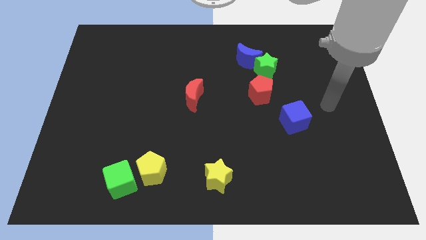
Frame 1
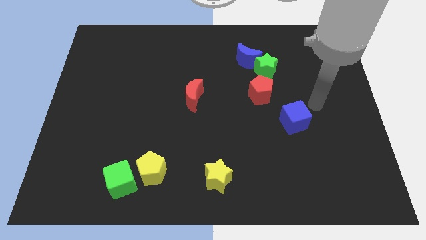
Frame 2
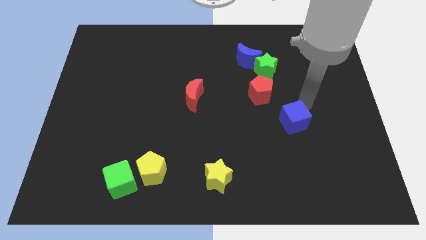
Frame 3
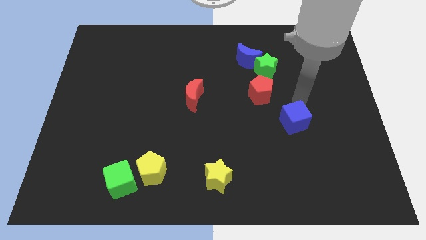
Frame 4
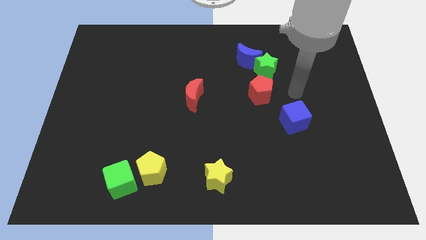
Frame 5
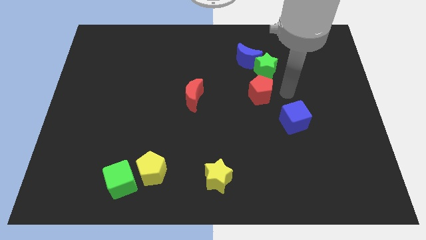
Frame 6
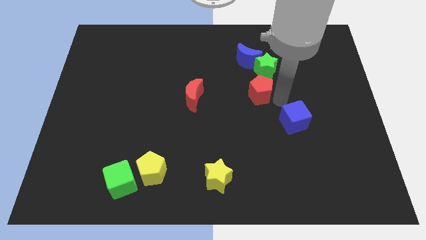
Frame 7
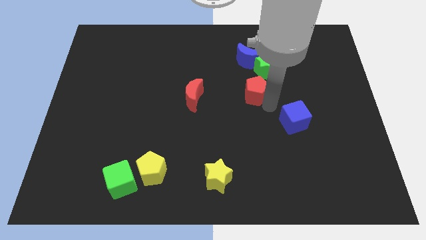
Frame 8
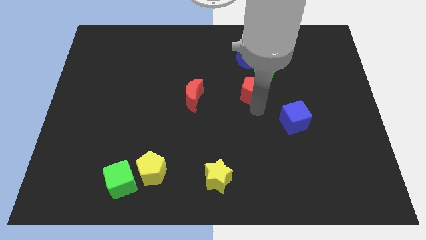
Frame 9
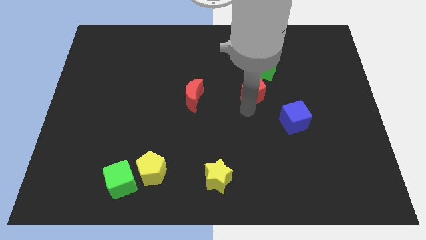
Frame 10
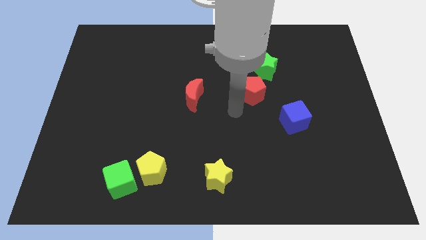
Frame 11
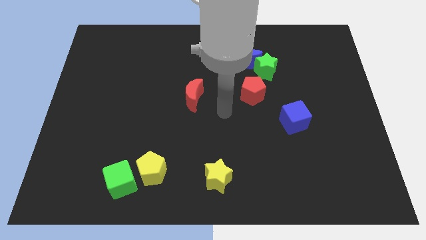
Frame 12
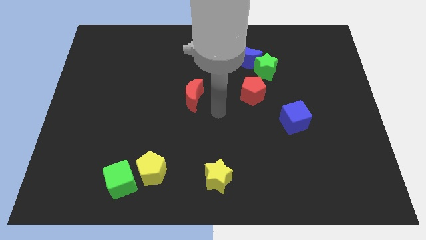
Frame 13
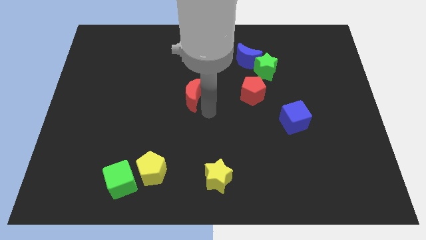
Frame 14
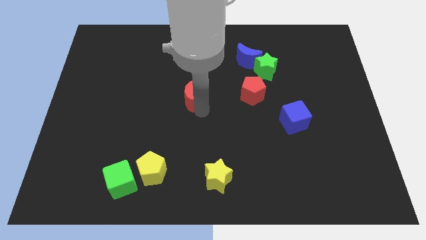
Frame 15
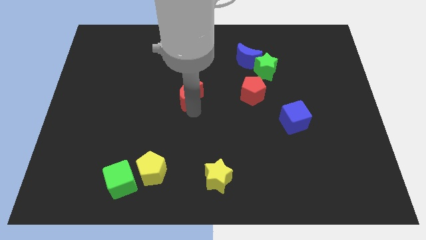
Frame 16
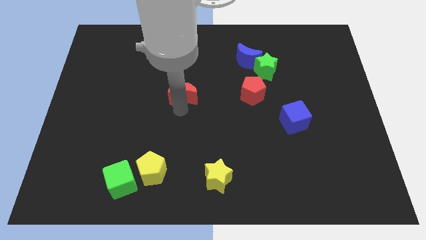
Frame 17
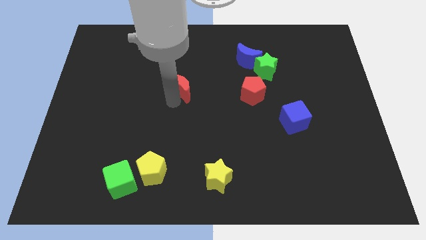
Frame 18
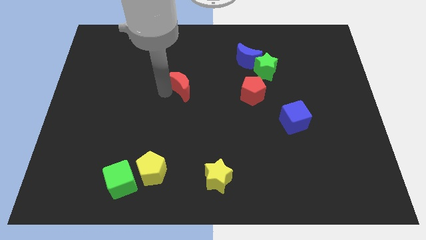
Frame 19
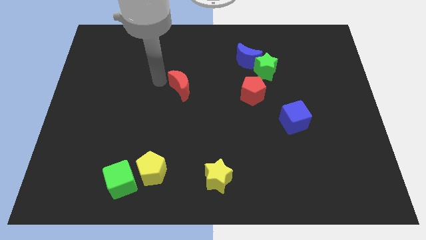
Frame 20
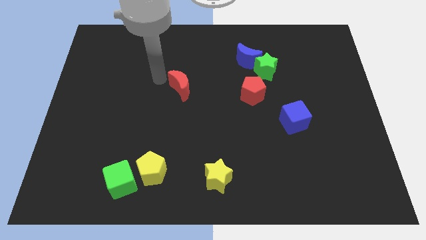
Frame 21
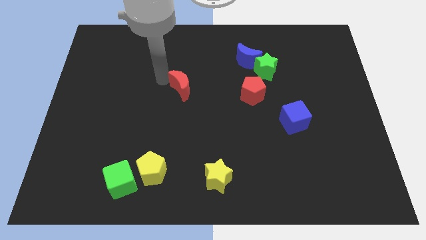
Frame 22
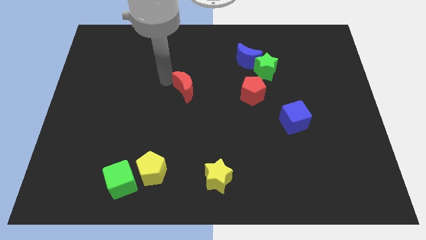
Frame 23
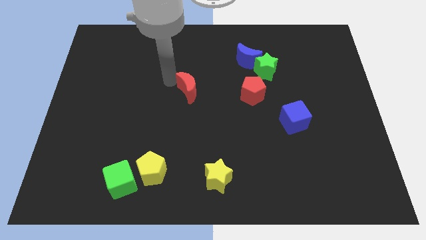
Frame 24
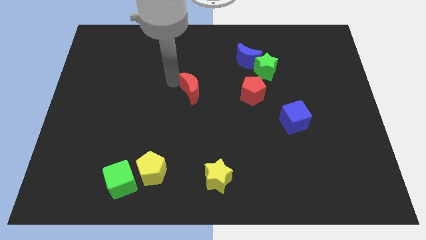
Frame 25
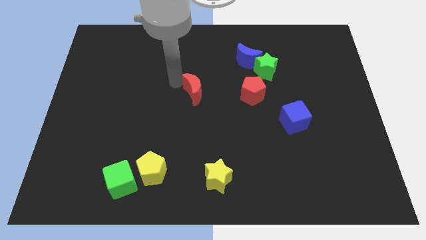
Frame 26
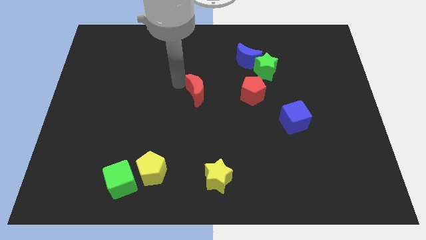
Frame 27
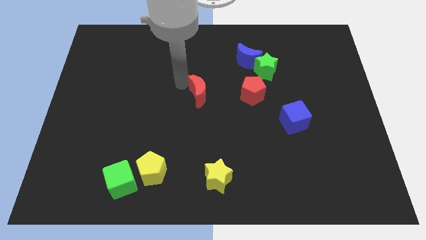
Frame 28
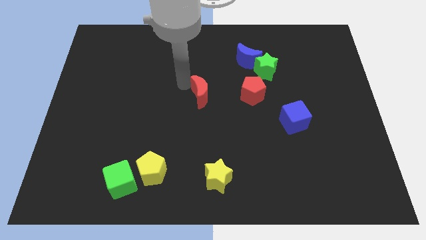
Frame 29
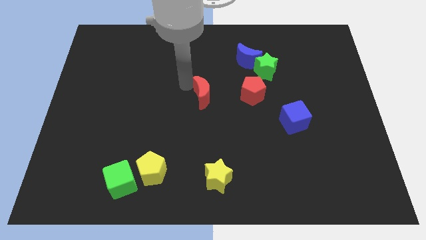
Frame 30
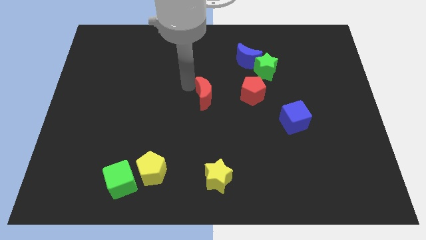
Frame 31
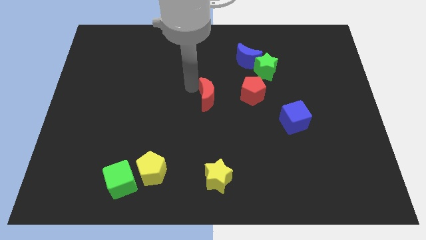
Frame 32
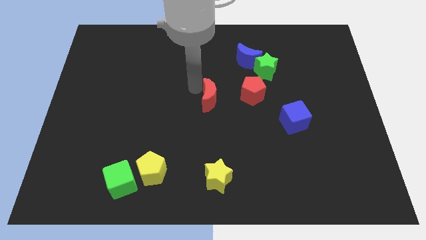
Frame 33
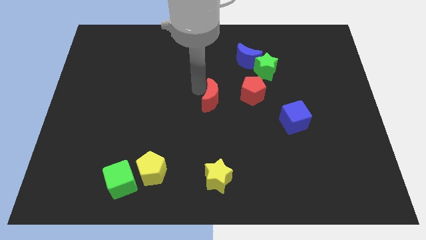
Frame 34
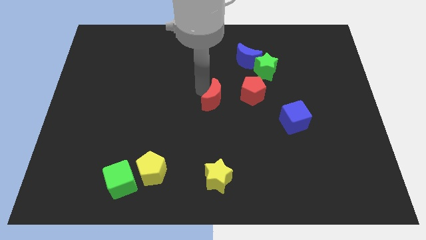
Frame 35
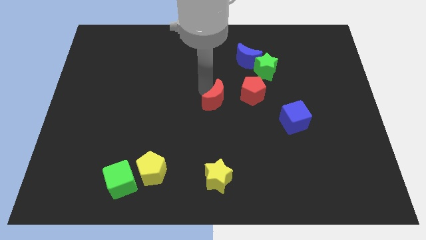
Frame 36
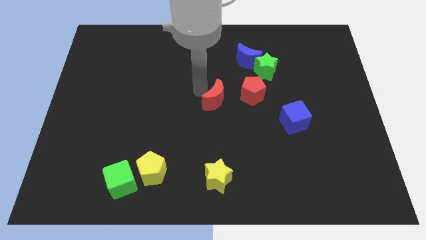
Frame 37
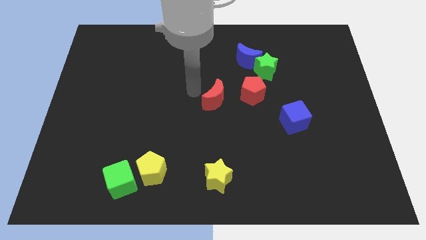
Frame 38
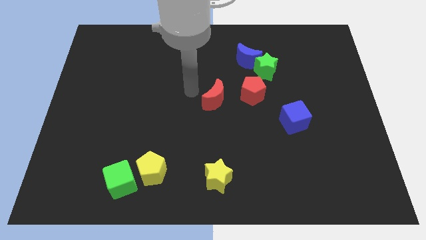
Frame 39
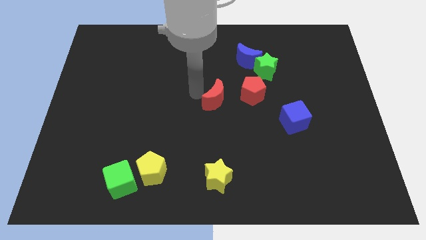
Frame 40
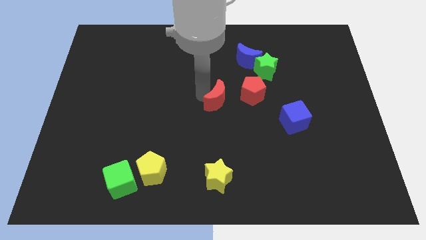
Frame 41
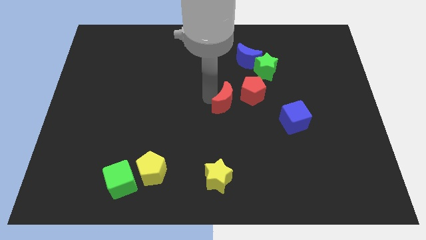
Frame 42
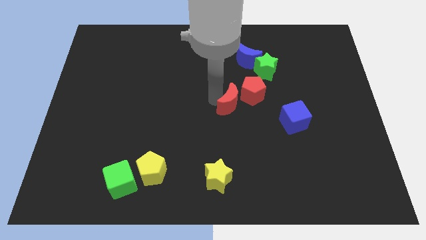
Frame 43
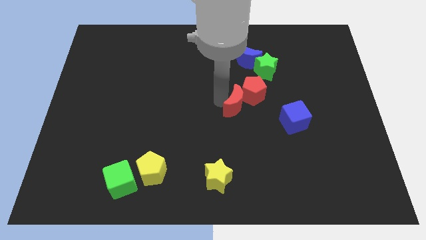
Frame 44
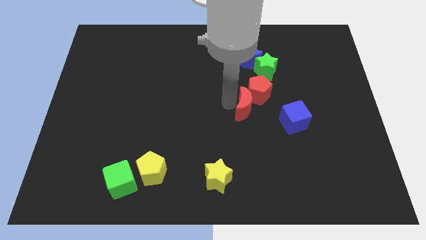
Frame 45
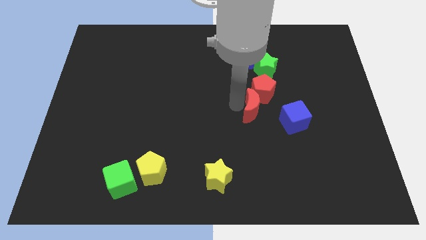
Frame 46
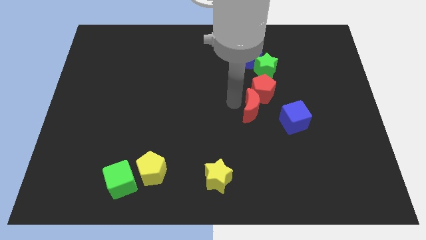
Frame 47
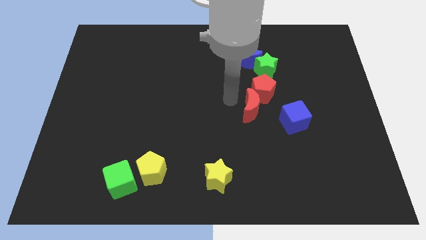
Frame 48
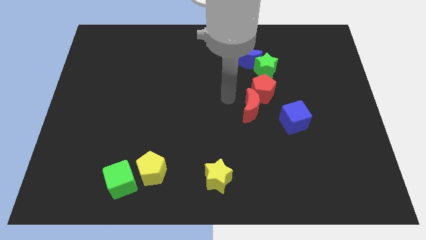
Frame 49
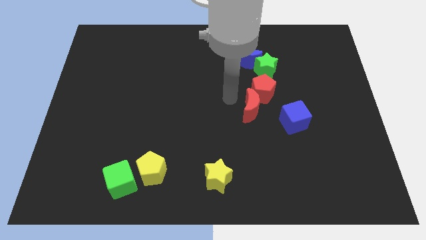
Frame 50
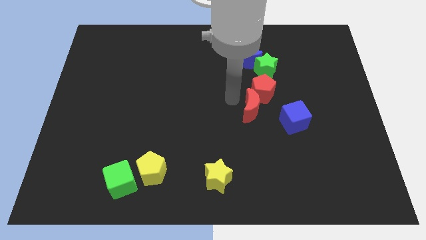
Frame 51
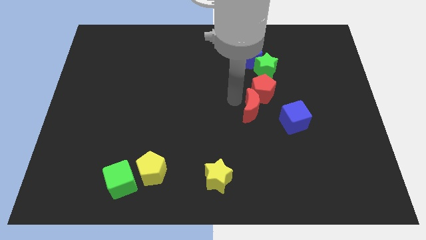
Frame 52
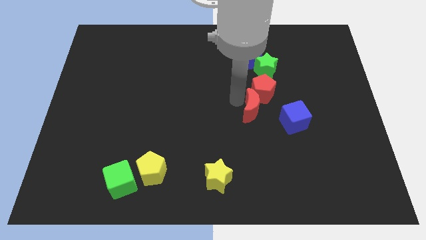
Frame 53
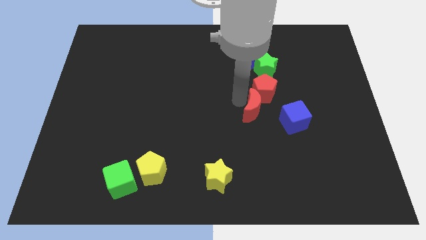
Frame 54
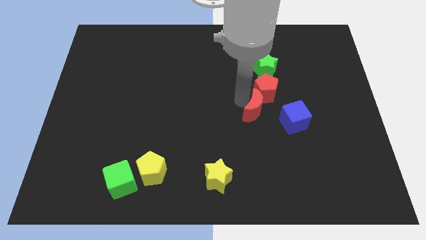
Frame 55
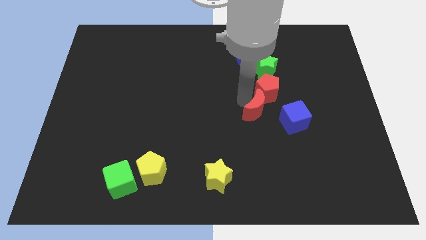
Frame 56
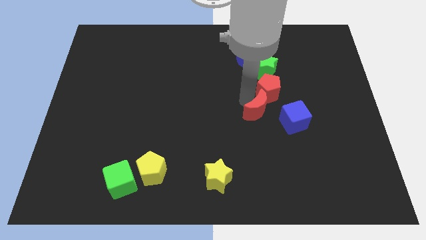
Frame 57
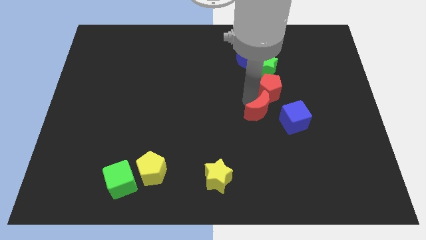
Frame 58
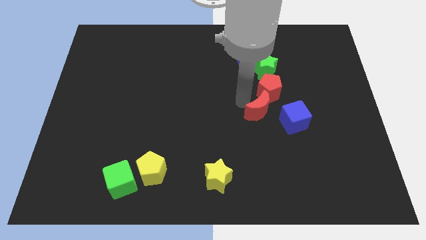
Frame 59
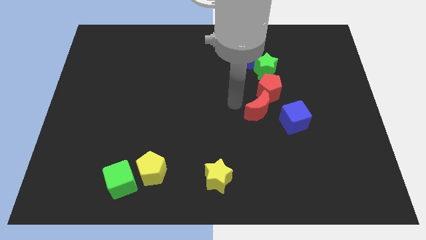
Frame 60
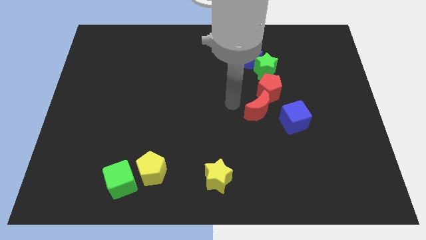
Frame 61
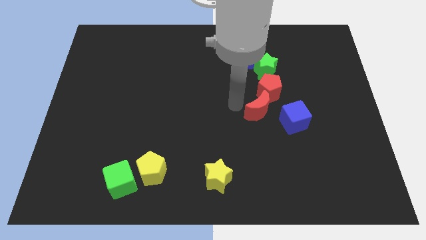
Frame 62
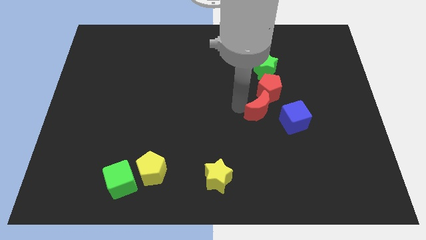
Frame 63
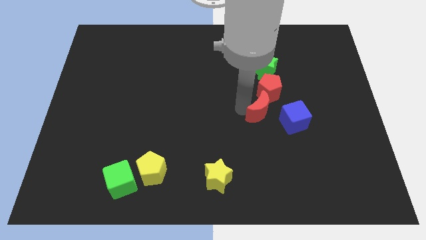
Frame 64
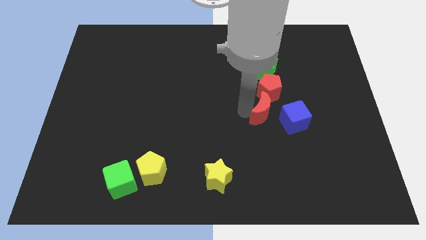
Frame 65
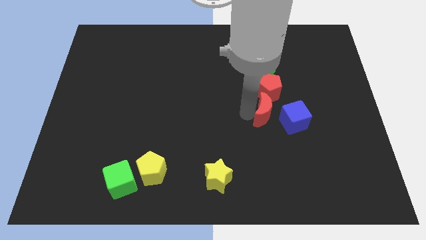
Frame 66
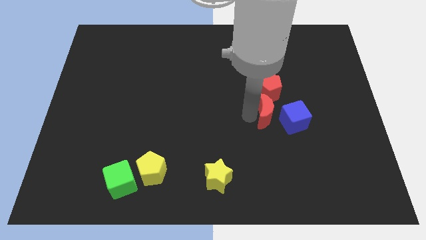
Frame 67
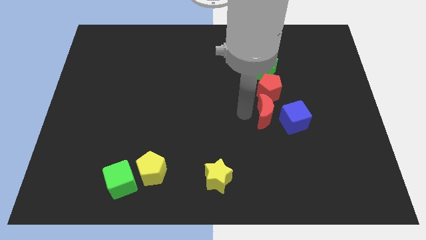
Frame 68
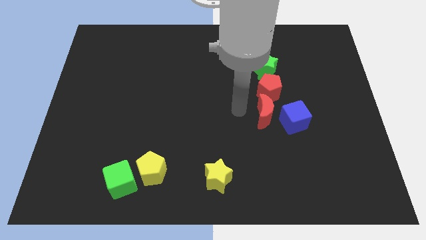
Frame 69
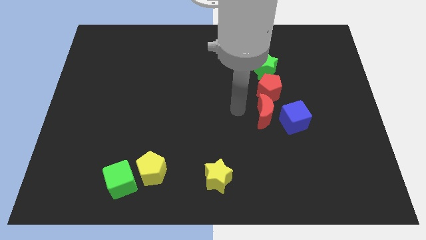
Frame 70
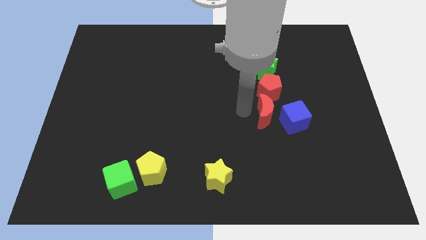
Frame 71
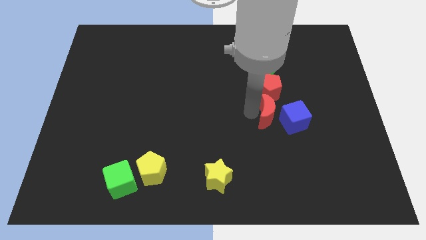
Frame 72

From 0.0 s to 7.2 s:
slide the red moon close to the blue cube

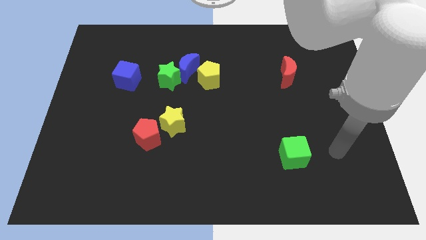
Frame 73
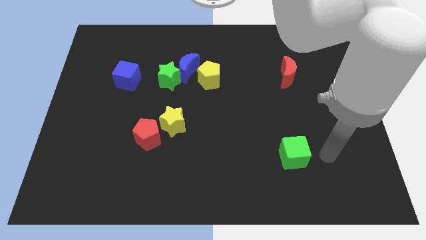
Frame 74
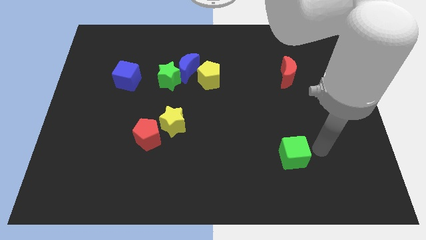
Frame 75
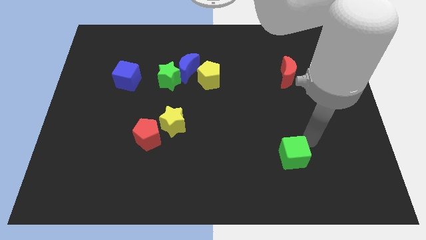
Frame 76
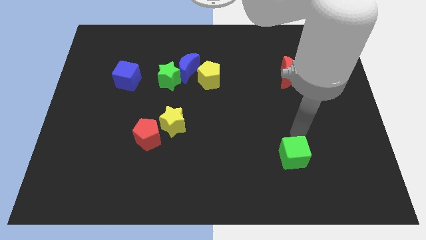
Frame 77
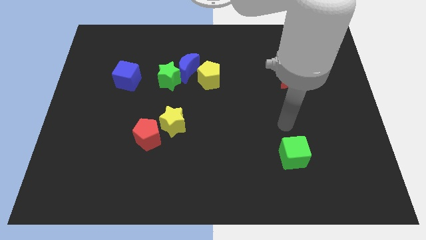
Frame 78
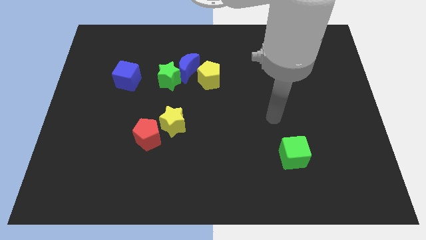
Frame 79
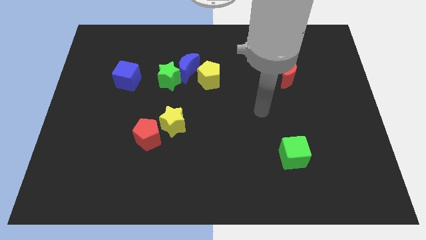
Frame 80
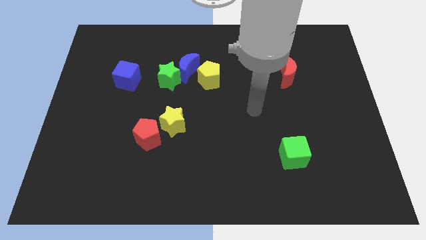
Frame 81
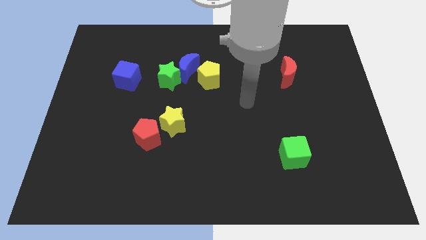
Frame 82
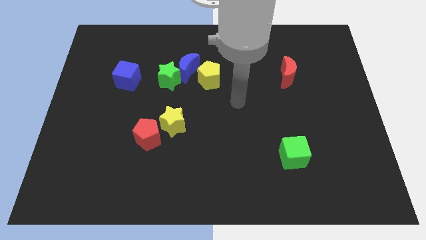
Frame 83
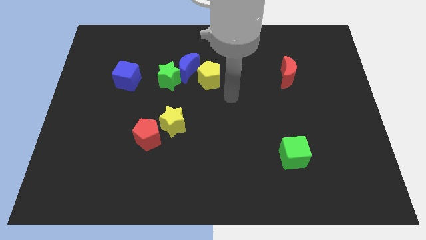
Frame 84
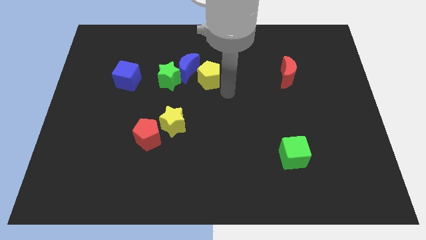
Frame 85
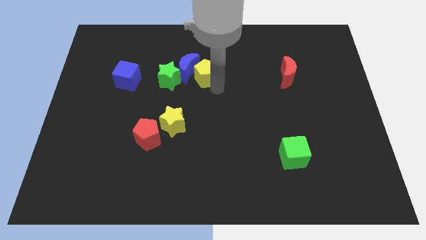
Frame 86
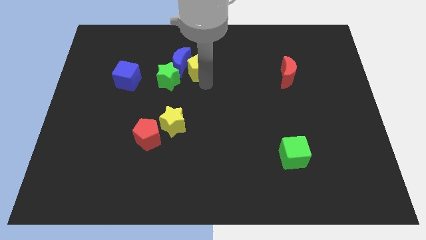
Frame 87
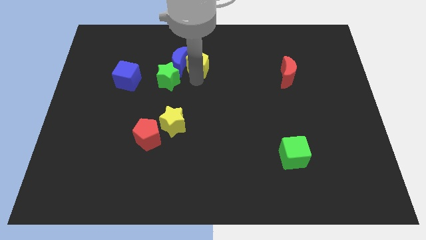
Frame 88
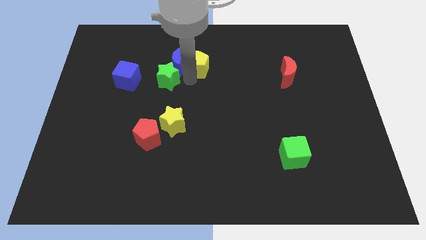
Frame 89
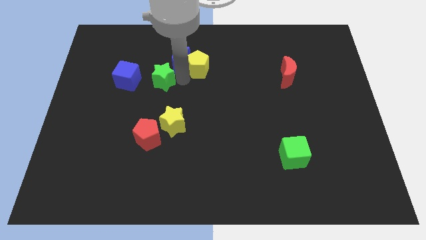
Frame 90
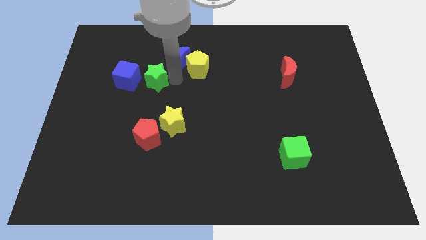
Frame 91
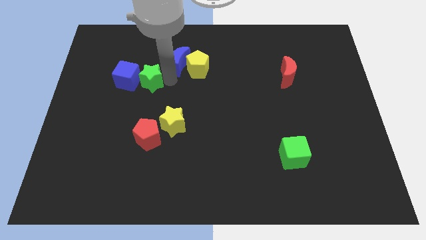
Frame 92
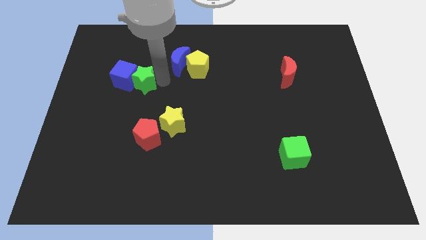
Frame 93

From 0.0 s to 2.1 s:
move the green star next to the blue cube
